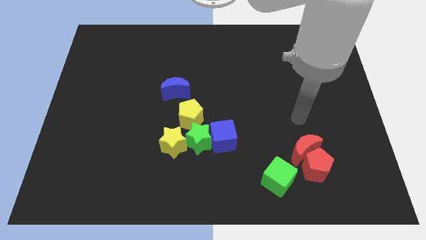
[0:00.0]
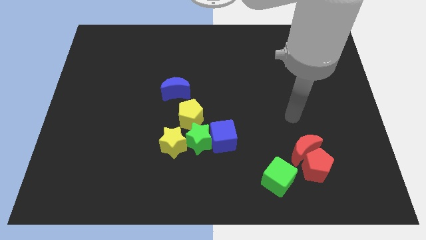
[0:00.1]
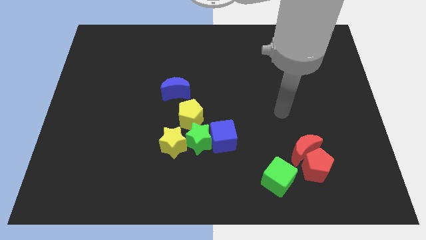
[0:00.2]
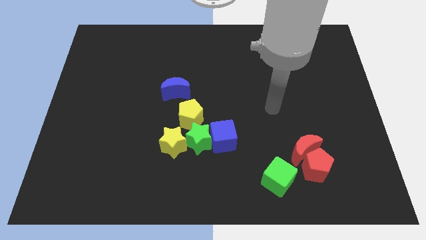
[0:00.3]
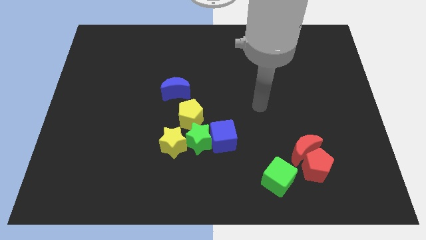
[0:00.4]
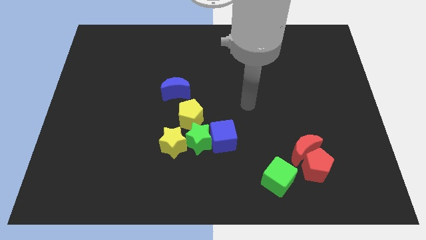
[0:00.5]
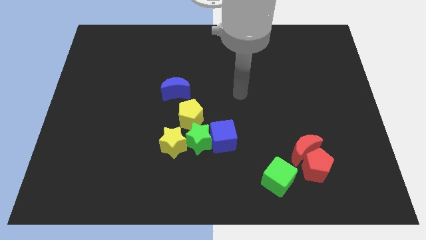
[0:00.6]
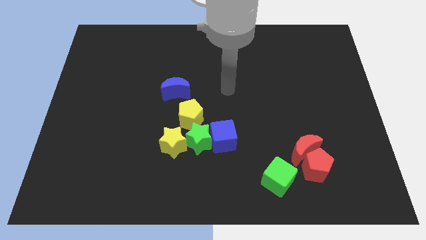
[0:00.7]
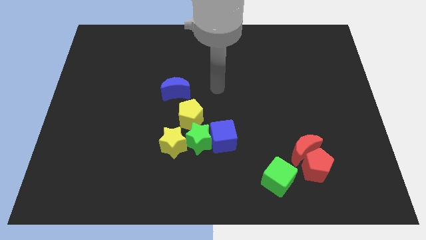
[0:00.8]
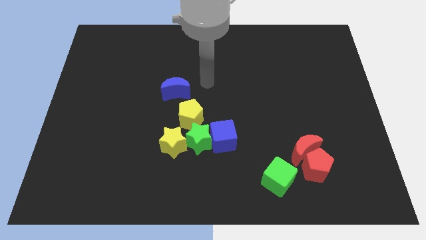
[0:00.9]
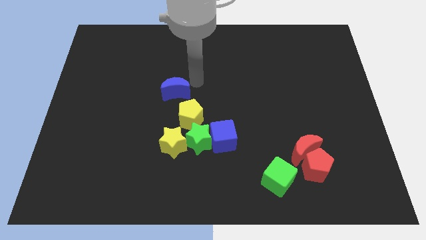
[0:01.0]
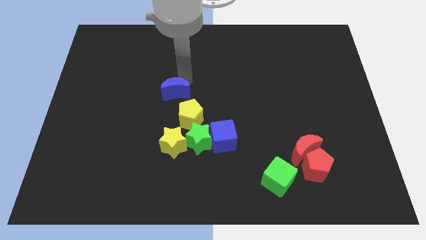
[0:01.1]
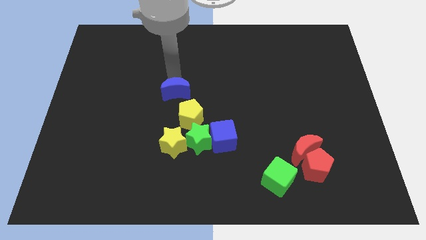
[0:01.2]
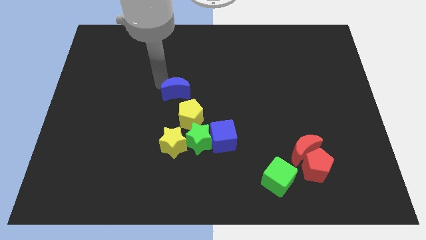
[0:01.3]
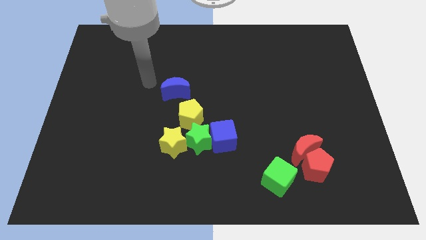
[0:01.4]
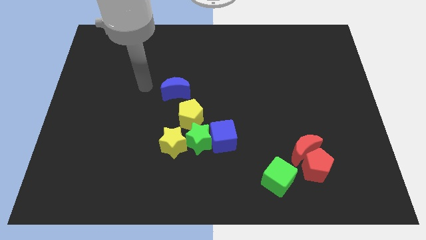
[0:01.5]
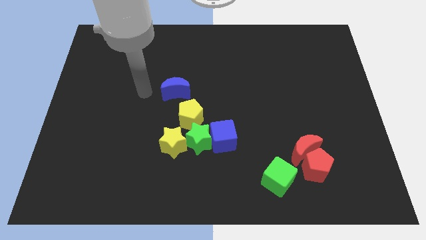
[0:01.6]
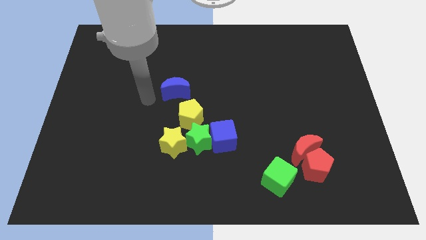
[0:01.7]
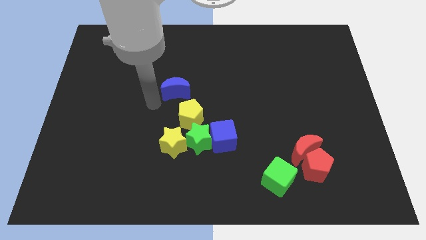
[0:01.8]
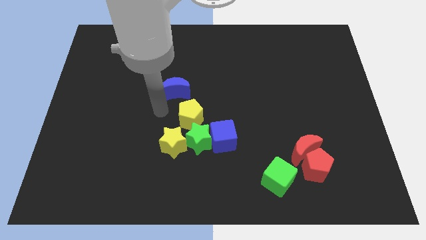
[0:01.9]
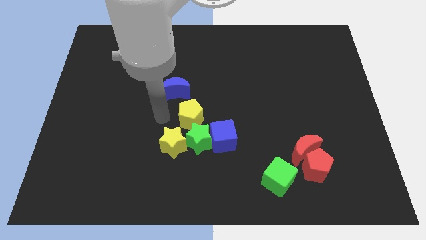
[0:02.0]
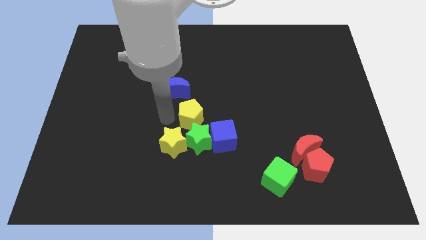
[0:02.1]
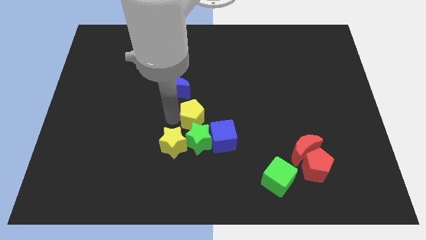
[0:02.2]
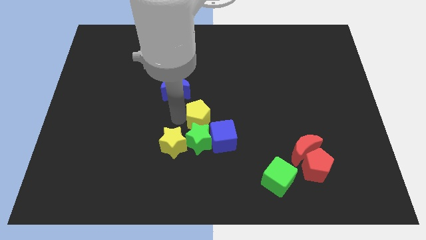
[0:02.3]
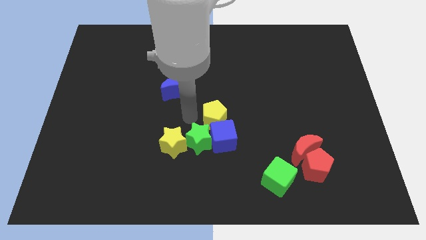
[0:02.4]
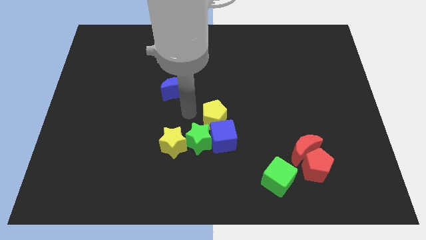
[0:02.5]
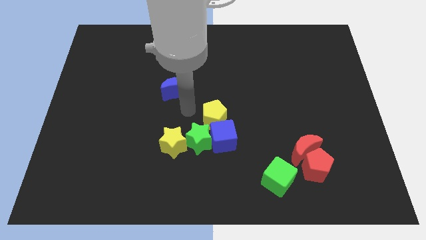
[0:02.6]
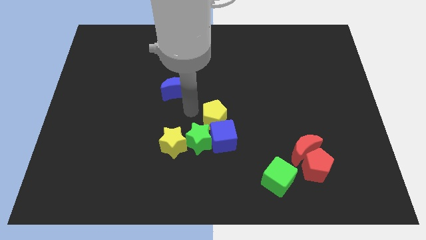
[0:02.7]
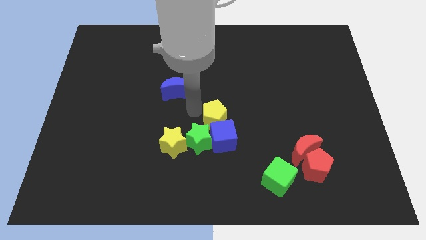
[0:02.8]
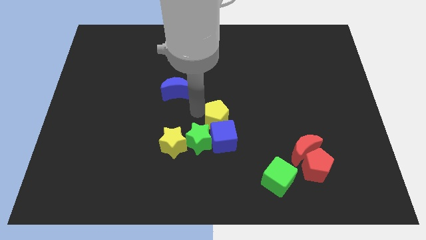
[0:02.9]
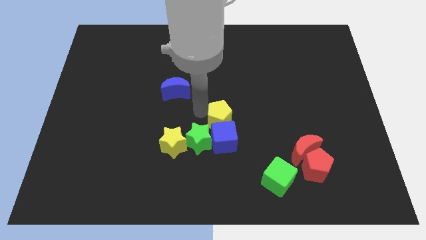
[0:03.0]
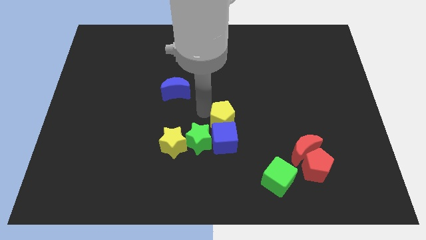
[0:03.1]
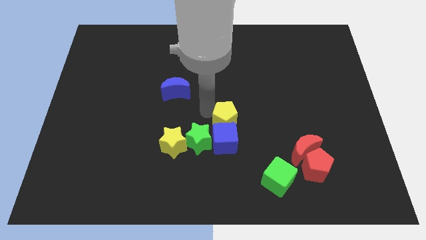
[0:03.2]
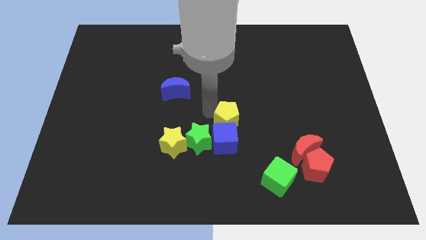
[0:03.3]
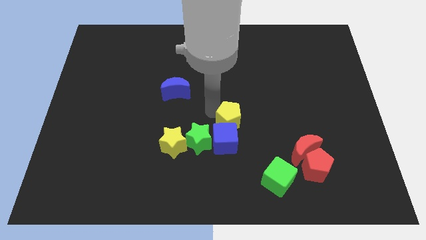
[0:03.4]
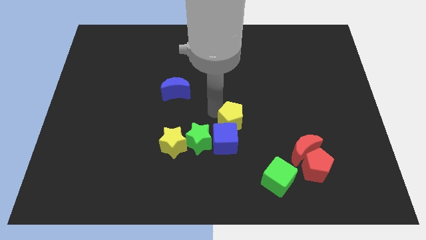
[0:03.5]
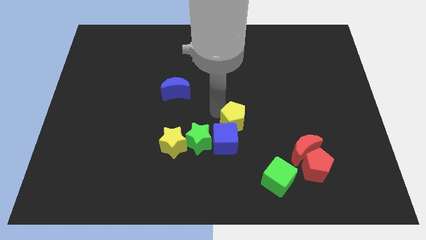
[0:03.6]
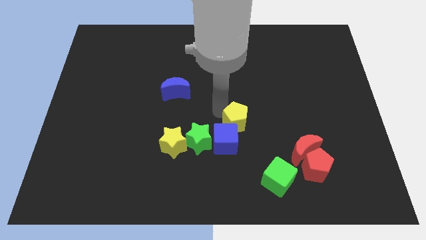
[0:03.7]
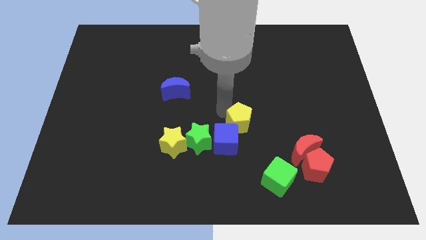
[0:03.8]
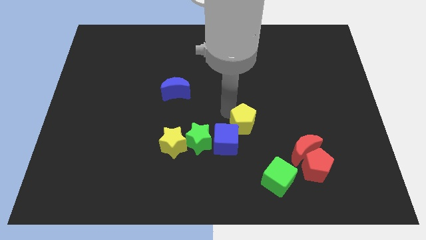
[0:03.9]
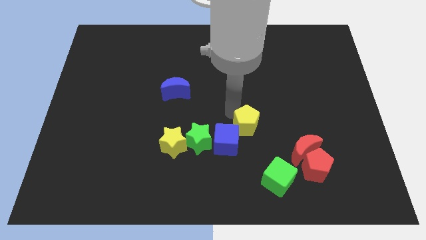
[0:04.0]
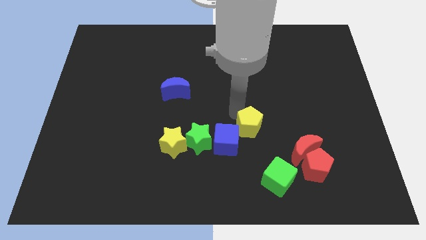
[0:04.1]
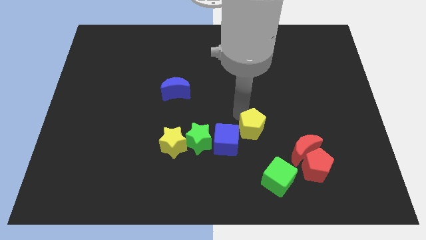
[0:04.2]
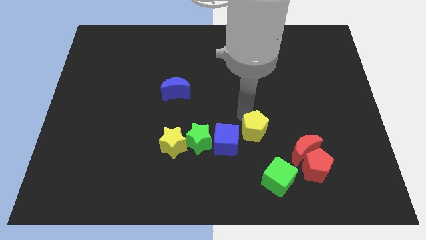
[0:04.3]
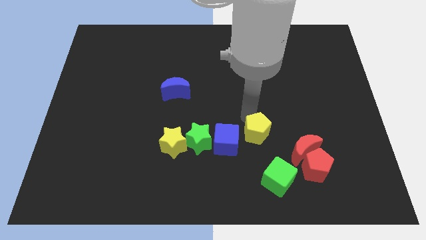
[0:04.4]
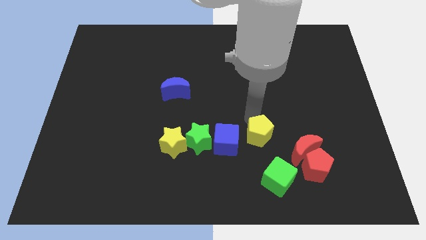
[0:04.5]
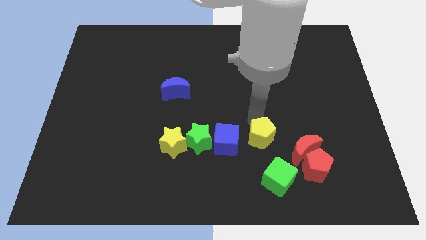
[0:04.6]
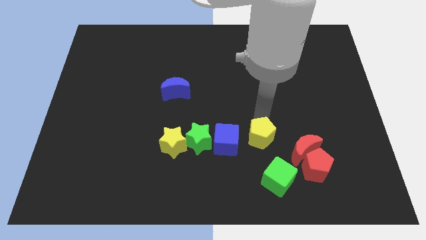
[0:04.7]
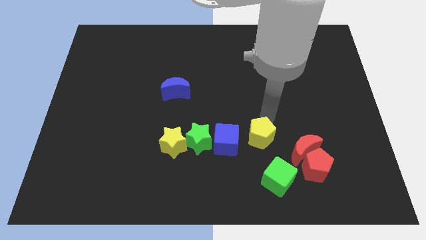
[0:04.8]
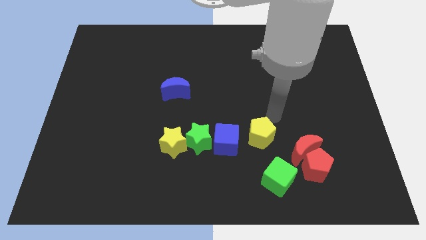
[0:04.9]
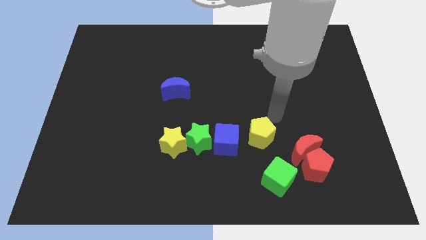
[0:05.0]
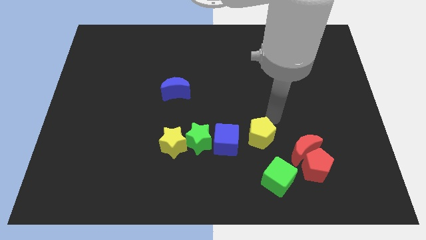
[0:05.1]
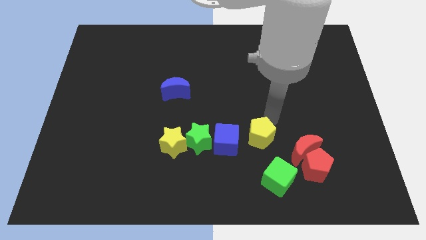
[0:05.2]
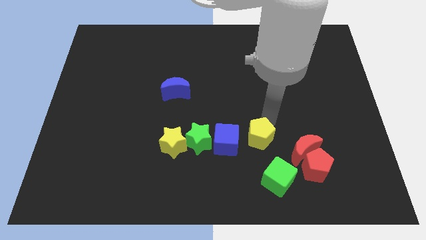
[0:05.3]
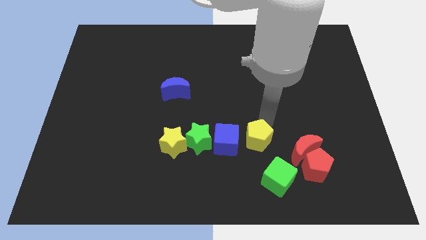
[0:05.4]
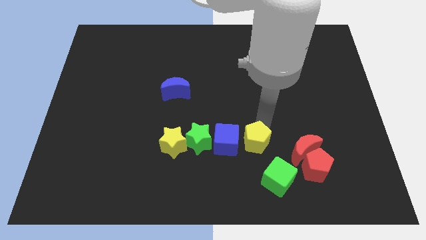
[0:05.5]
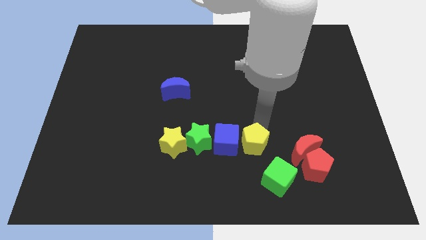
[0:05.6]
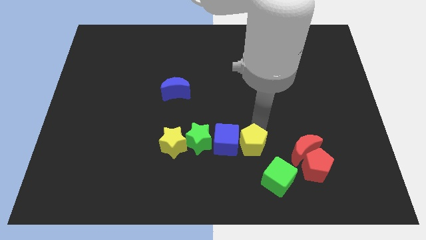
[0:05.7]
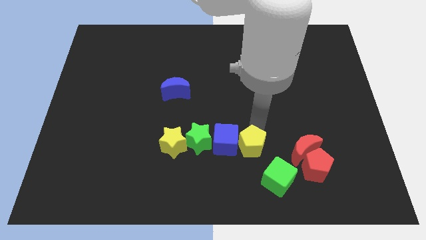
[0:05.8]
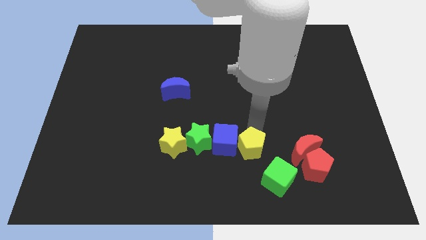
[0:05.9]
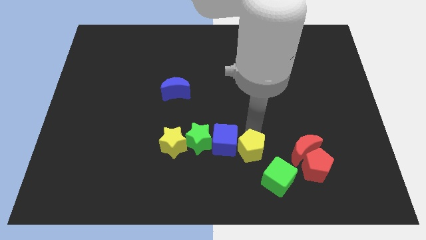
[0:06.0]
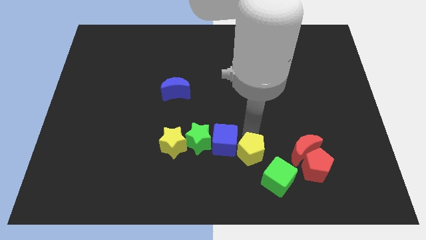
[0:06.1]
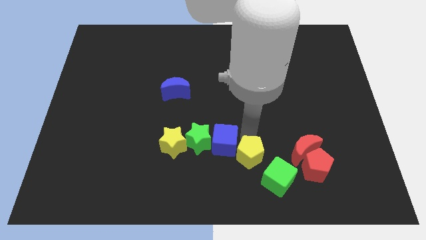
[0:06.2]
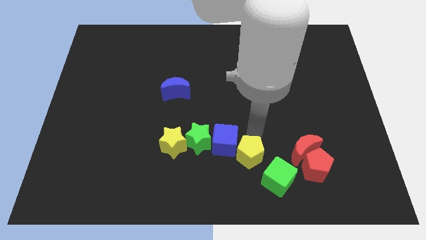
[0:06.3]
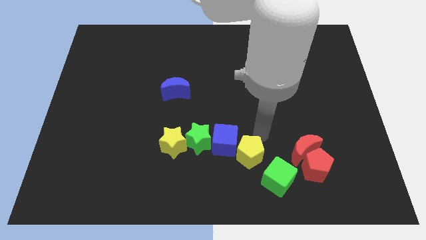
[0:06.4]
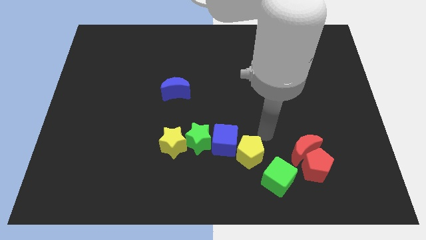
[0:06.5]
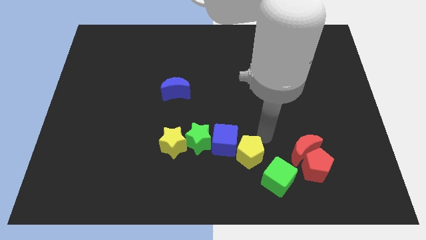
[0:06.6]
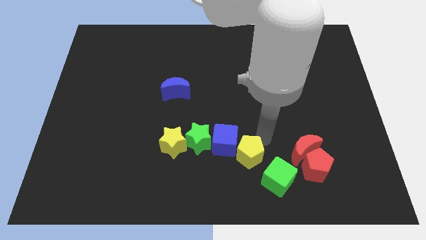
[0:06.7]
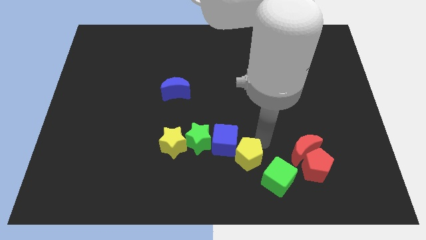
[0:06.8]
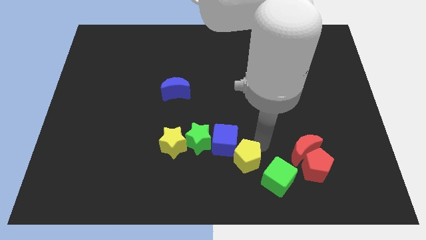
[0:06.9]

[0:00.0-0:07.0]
move the yellow pentagon just left of the green cube
